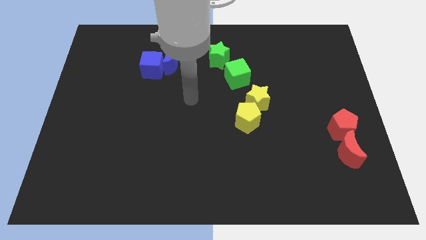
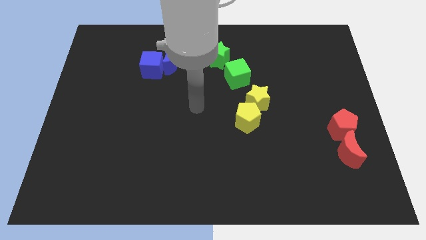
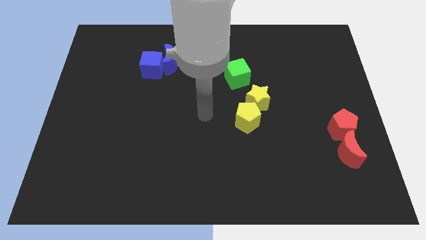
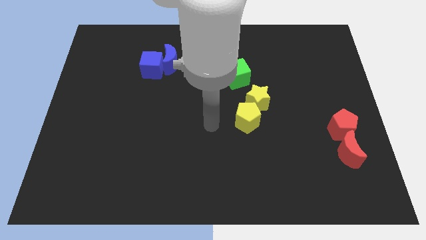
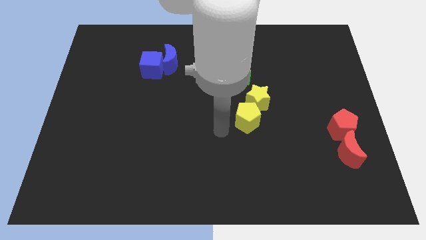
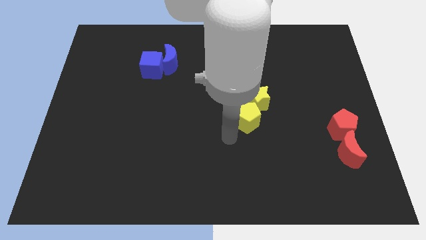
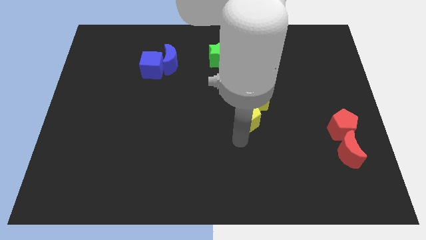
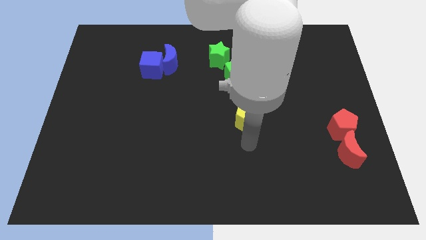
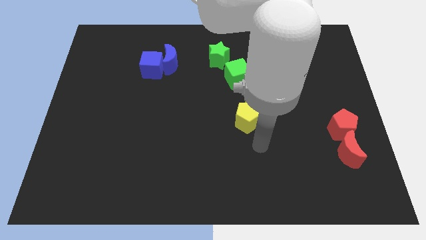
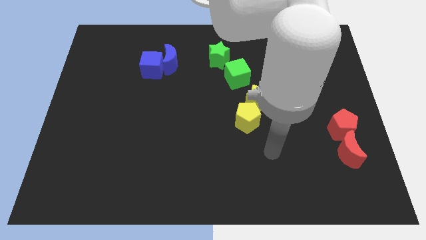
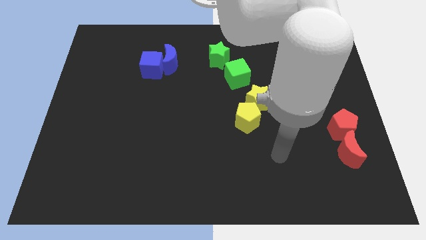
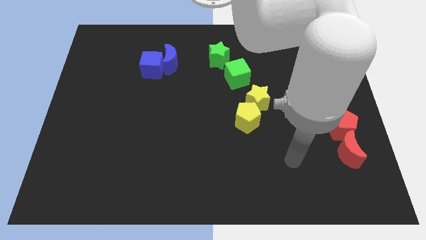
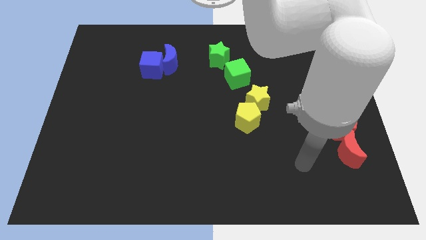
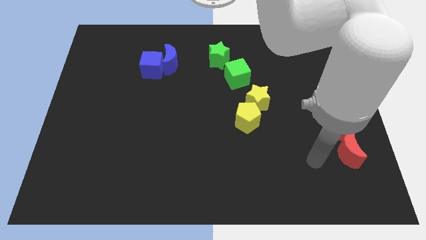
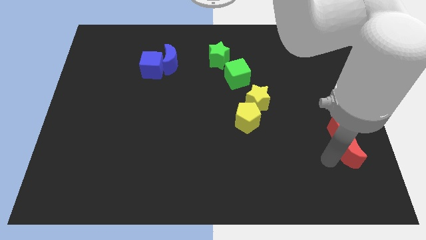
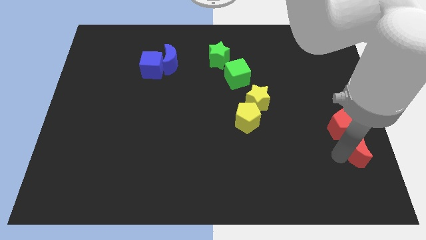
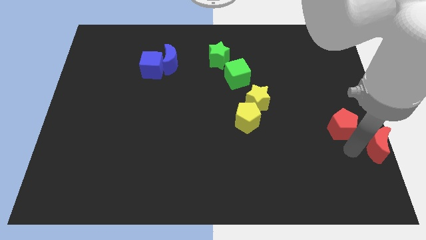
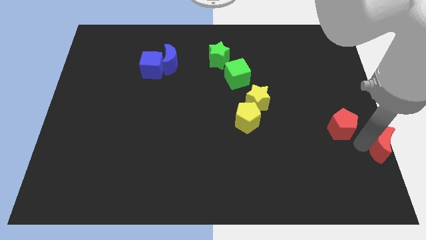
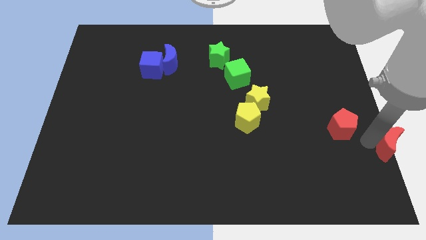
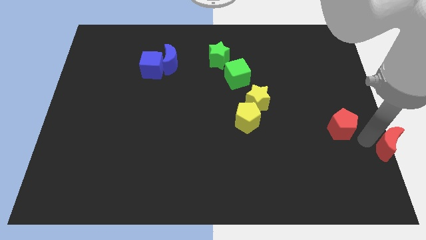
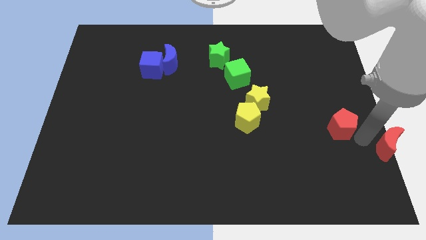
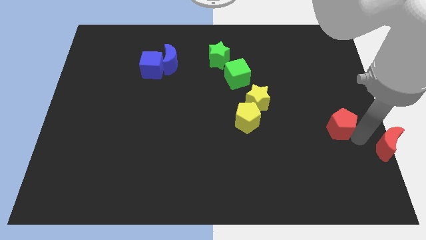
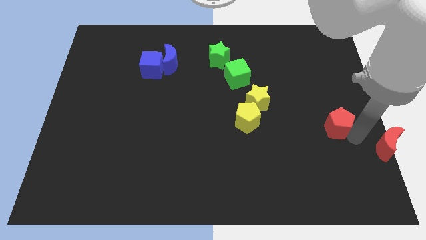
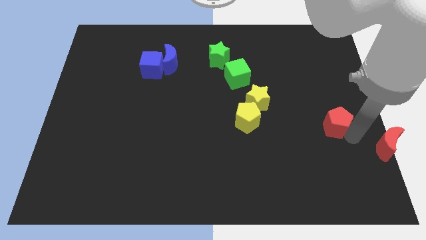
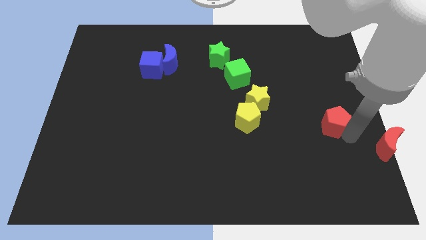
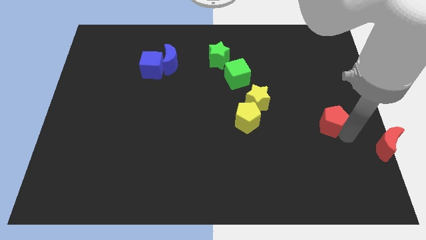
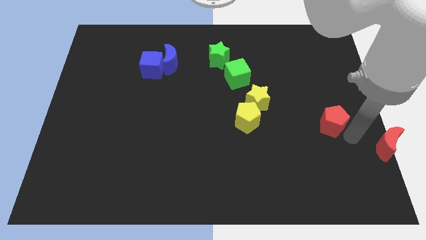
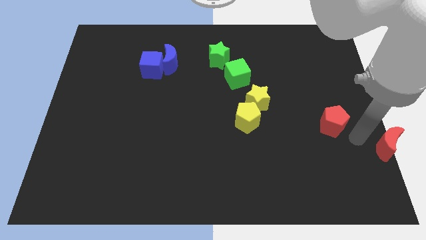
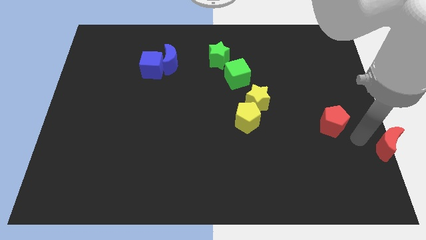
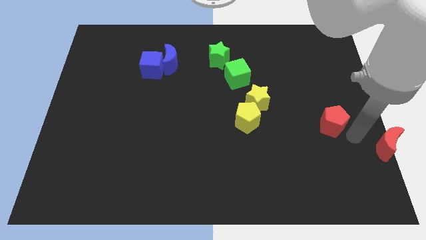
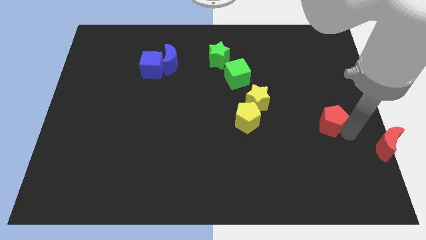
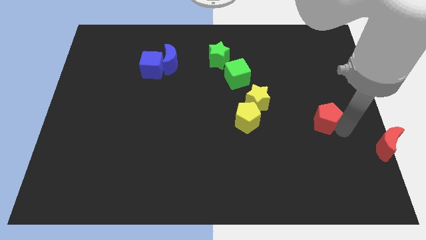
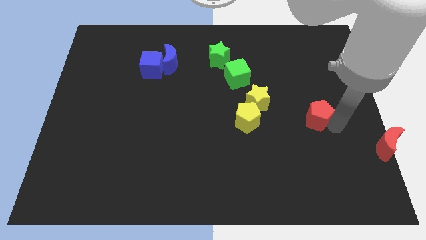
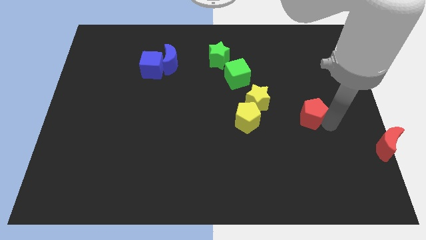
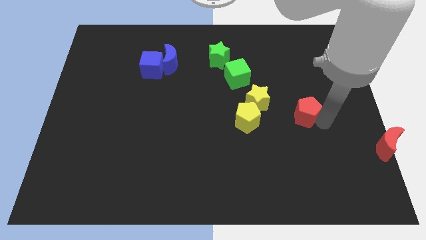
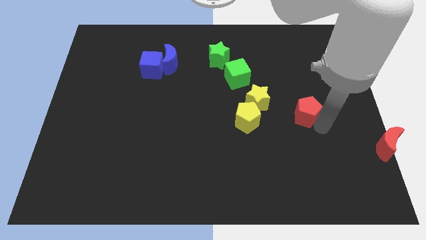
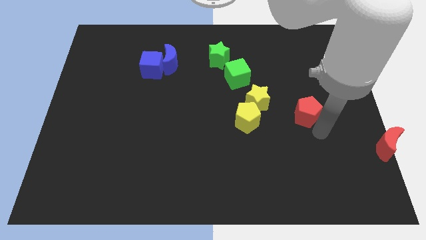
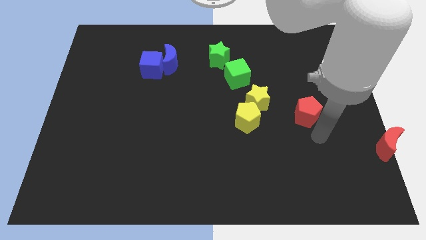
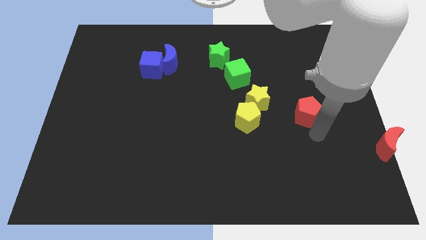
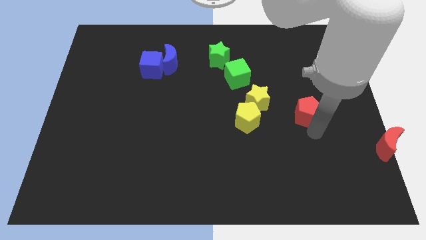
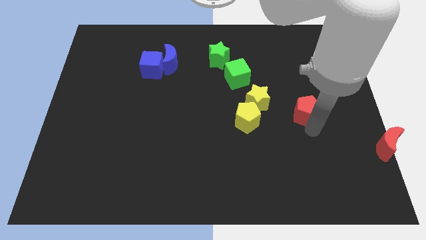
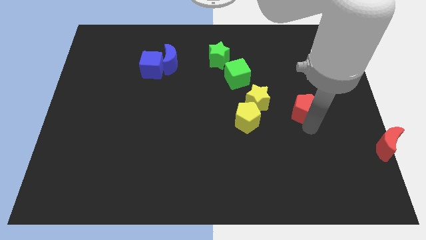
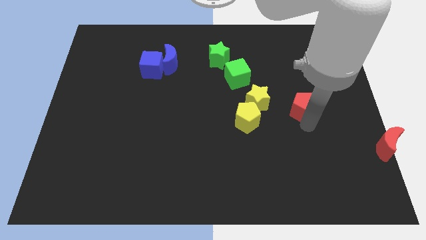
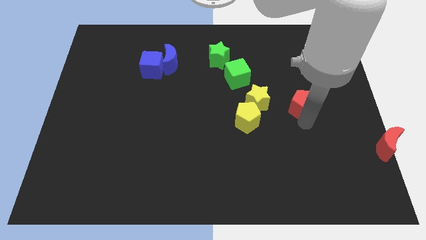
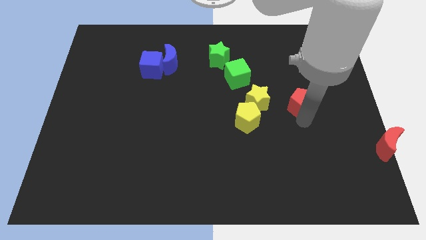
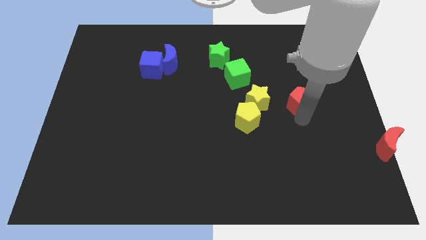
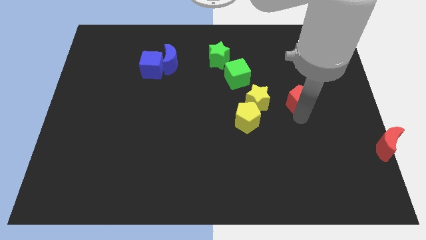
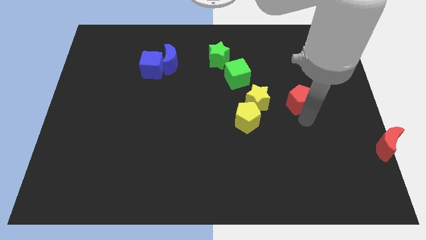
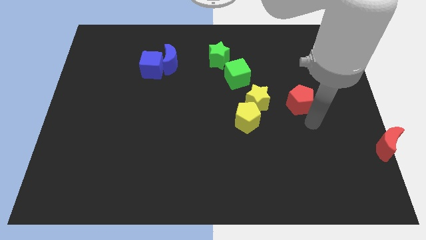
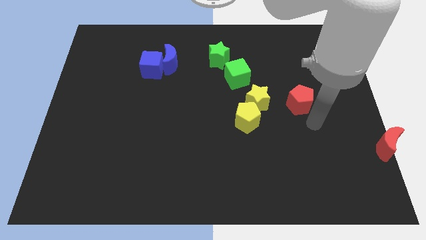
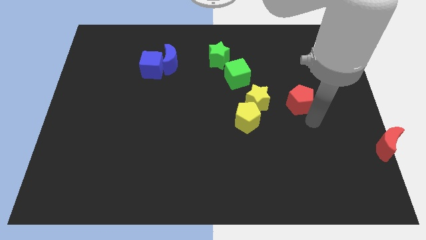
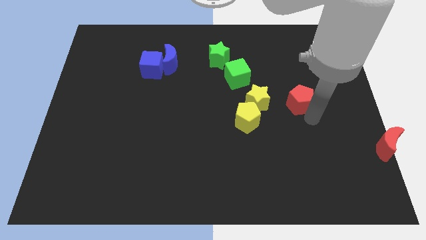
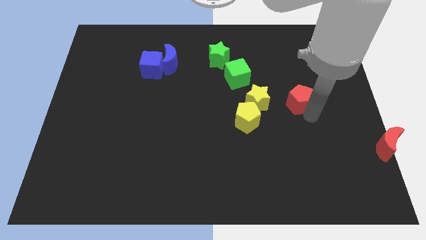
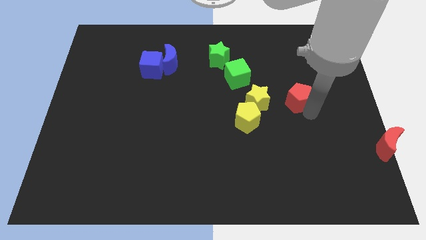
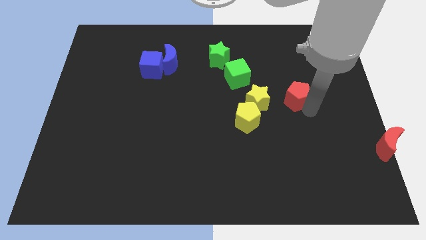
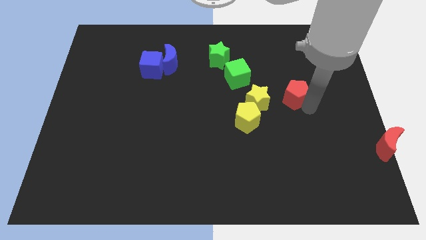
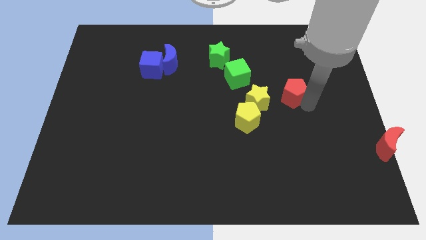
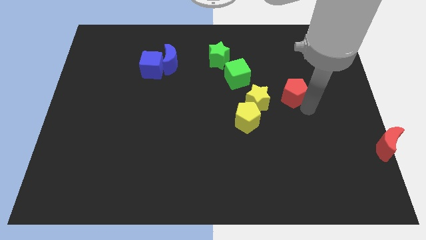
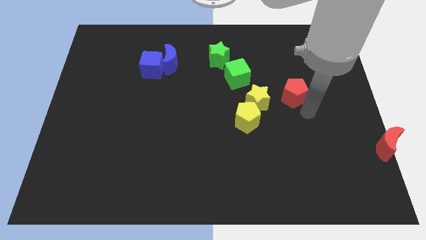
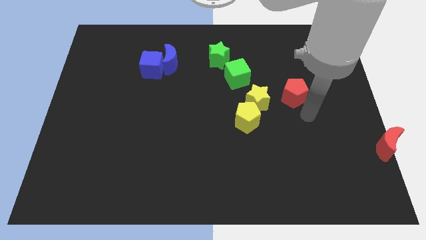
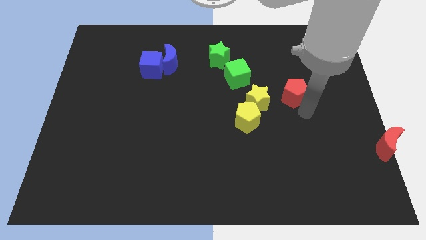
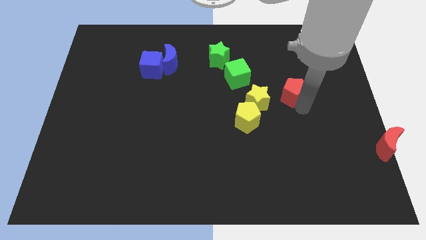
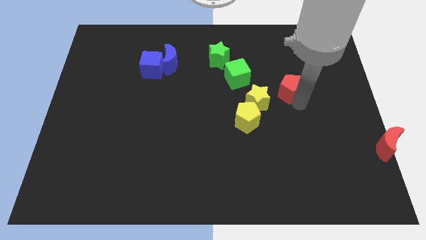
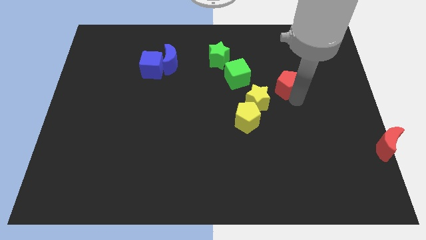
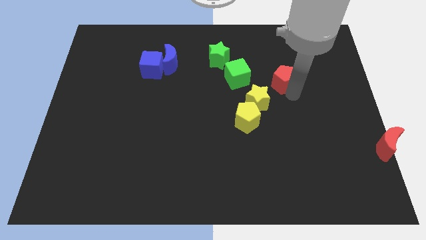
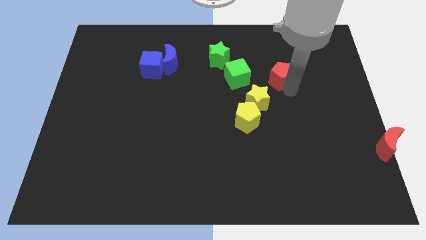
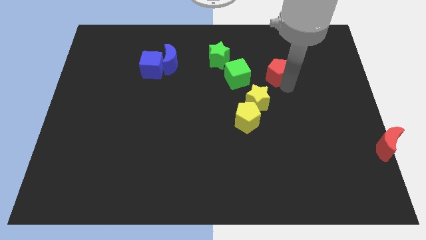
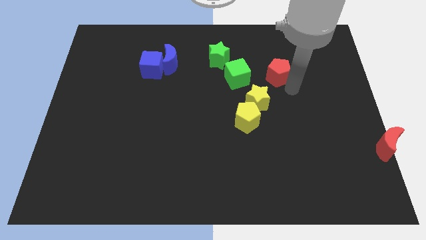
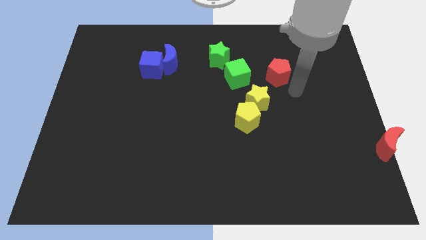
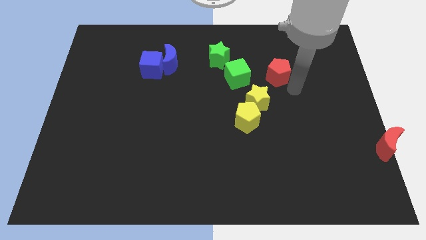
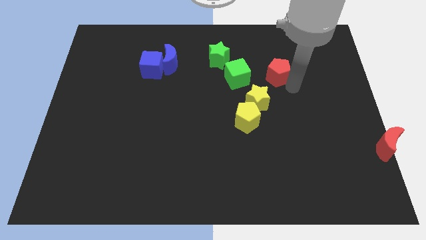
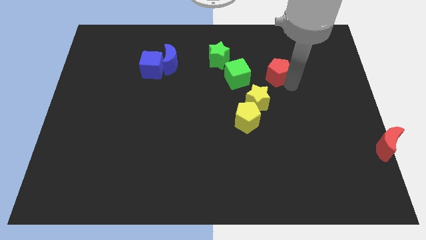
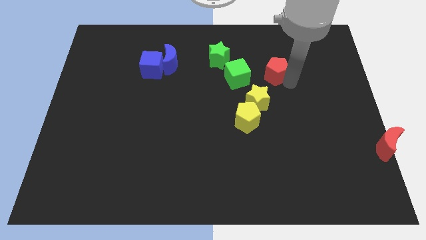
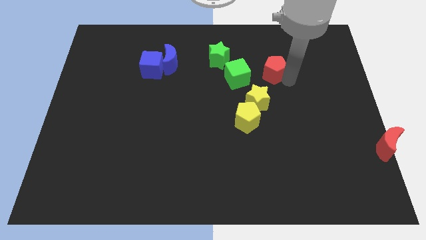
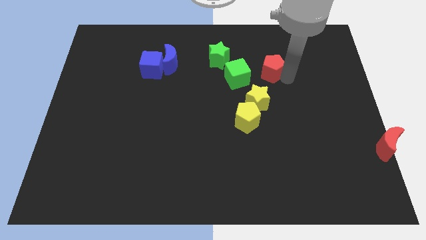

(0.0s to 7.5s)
slide the red pentagon right of the green star
